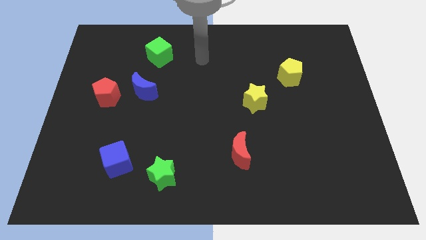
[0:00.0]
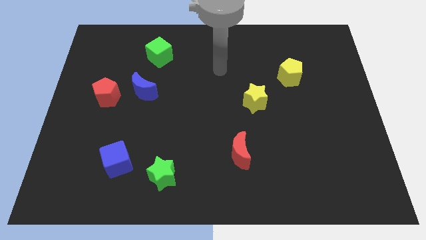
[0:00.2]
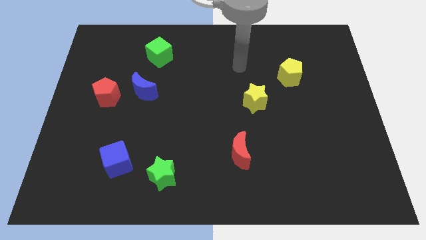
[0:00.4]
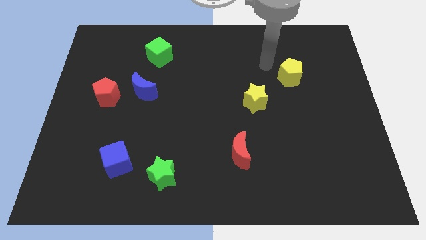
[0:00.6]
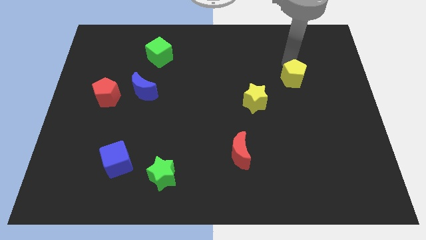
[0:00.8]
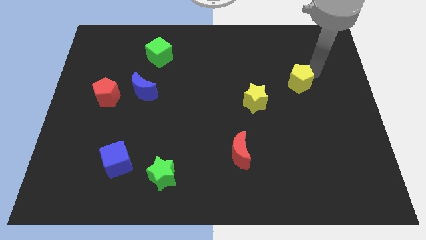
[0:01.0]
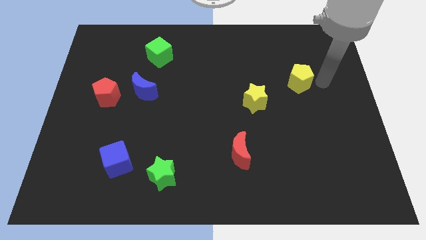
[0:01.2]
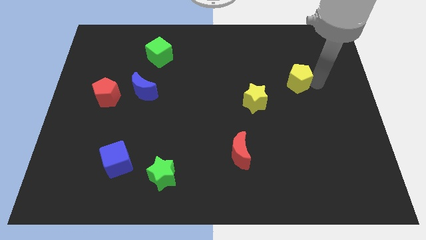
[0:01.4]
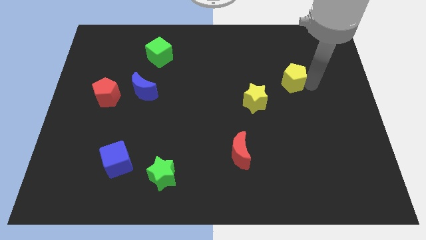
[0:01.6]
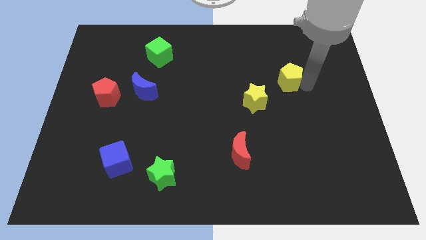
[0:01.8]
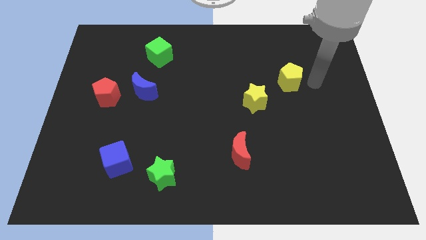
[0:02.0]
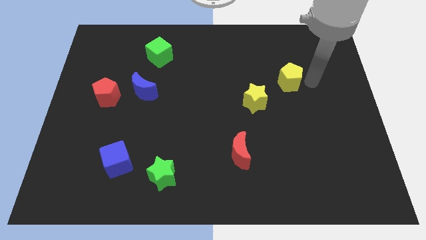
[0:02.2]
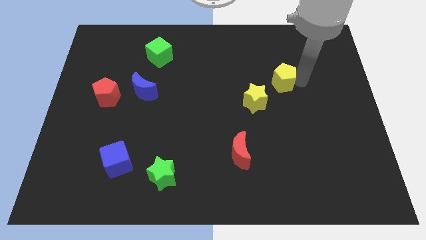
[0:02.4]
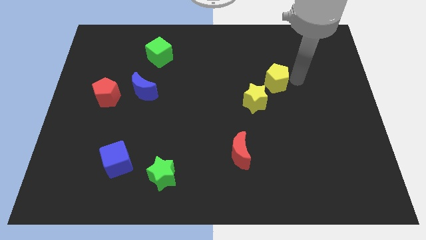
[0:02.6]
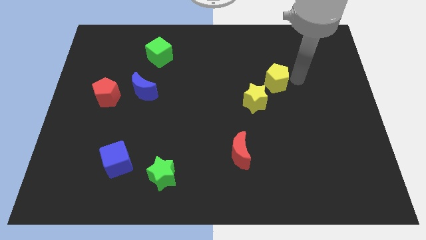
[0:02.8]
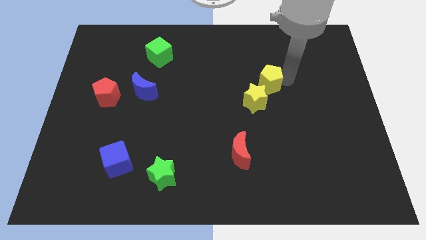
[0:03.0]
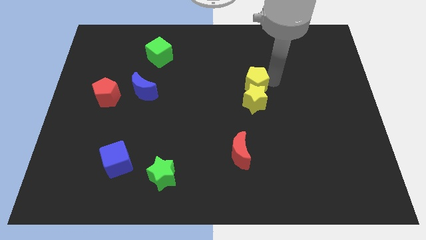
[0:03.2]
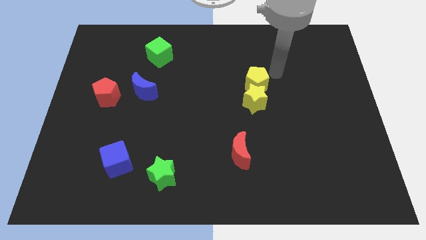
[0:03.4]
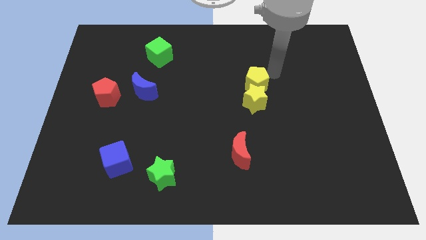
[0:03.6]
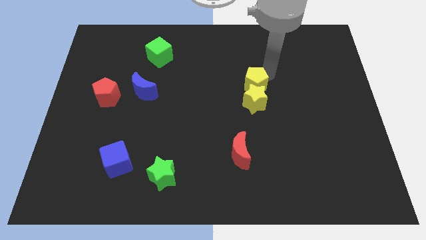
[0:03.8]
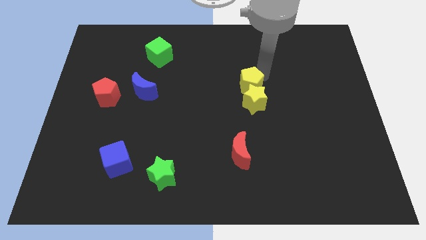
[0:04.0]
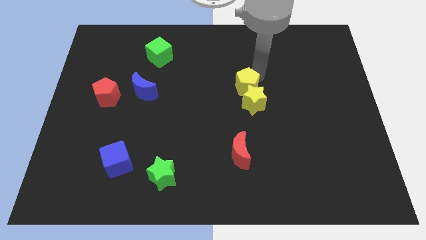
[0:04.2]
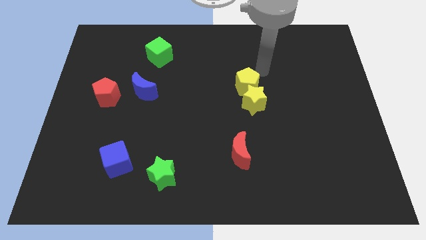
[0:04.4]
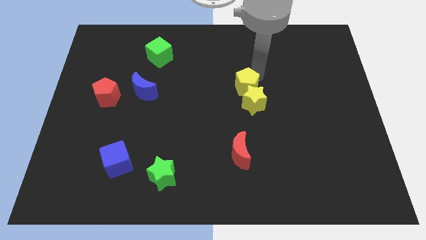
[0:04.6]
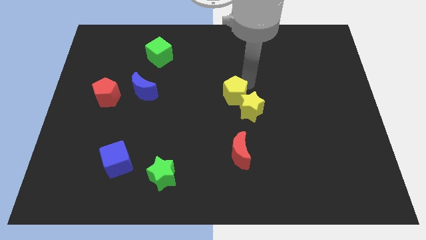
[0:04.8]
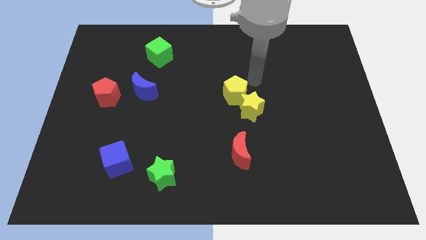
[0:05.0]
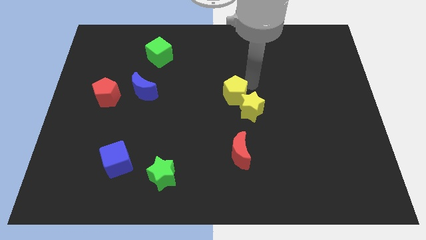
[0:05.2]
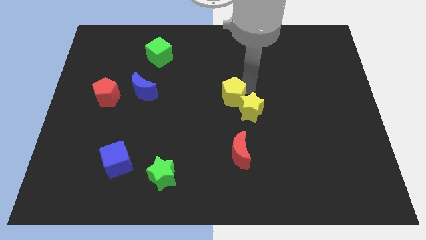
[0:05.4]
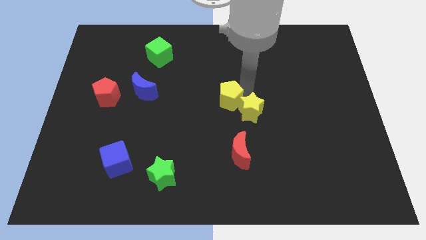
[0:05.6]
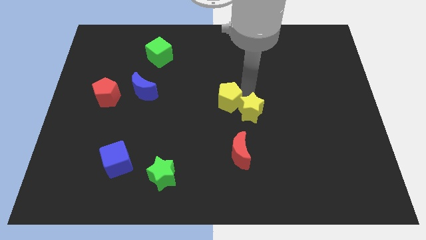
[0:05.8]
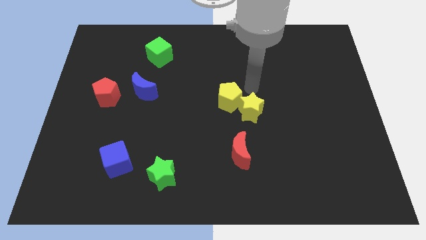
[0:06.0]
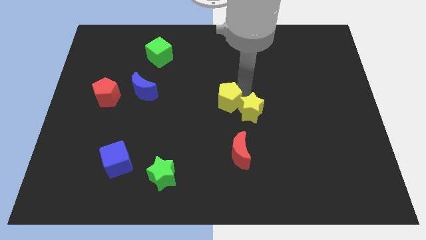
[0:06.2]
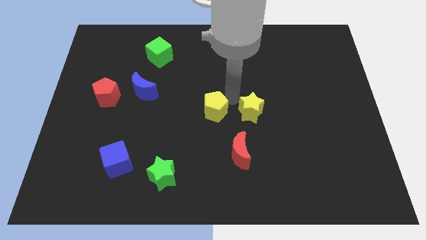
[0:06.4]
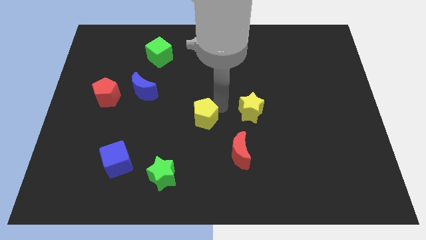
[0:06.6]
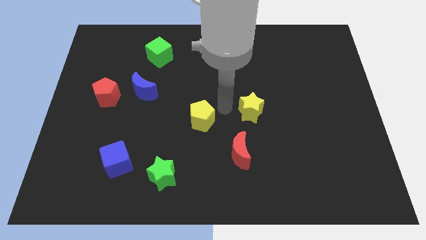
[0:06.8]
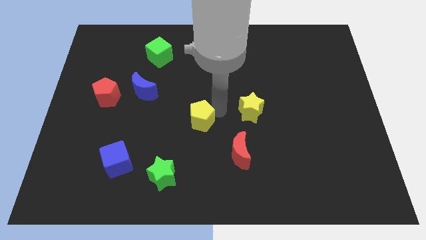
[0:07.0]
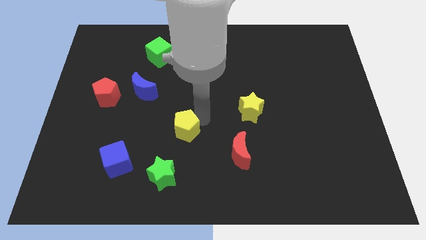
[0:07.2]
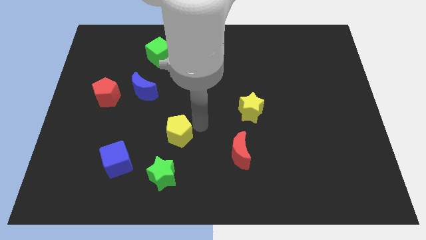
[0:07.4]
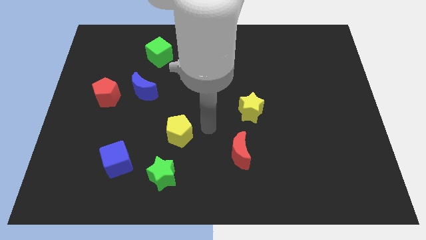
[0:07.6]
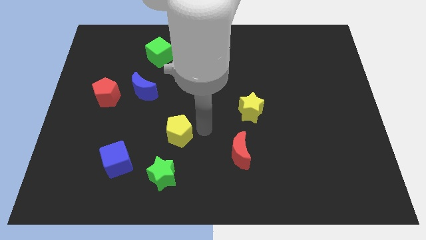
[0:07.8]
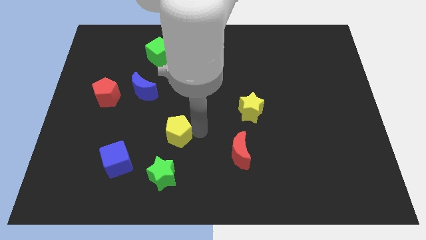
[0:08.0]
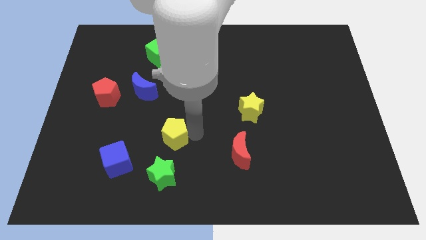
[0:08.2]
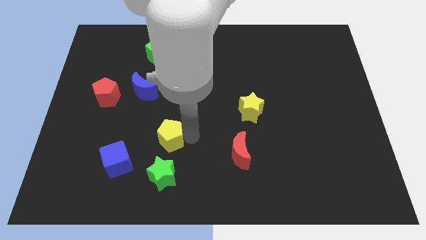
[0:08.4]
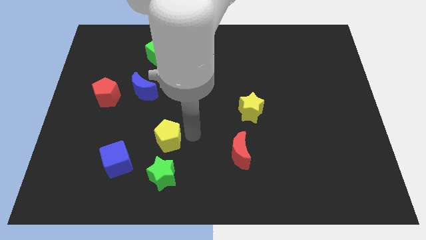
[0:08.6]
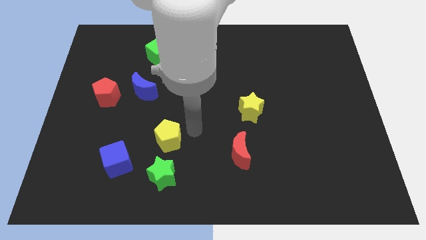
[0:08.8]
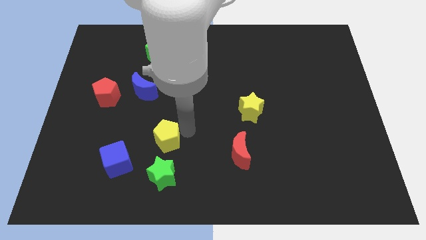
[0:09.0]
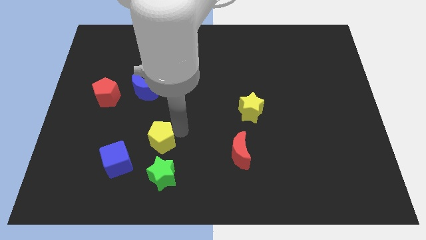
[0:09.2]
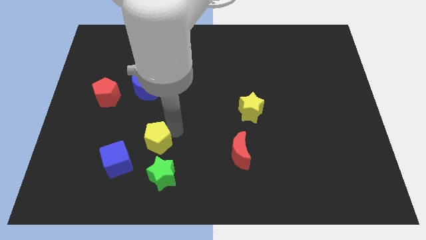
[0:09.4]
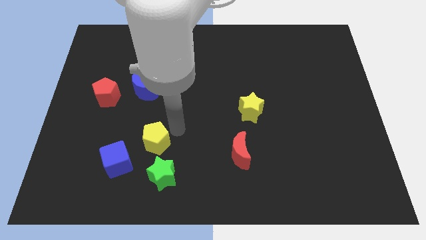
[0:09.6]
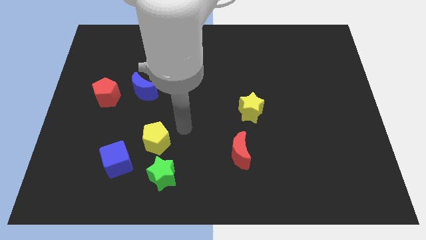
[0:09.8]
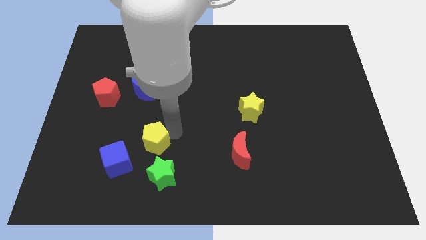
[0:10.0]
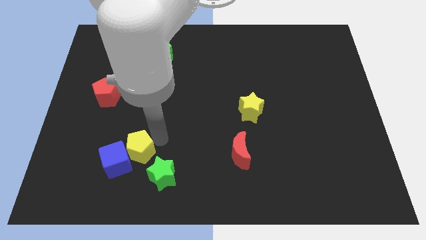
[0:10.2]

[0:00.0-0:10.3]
put the yellow pentagon to the blue cube

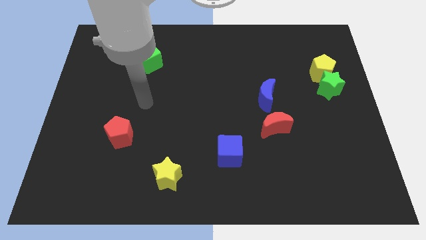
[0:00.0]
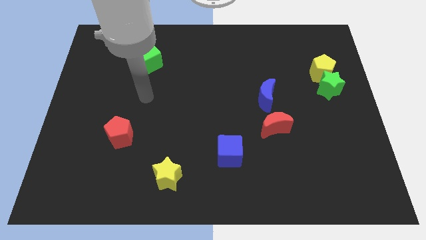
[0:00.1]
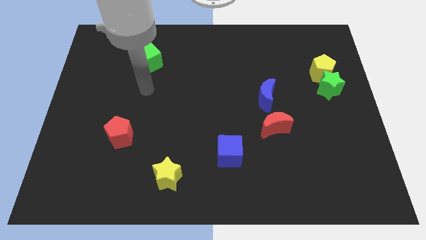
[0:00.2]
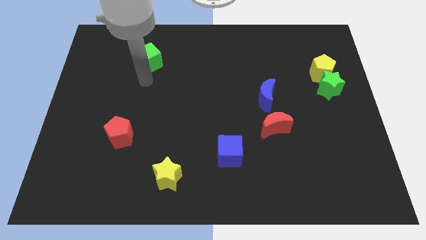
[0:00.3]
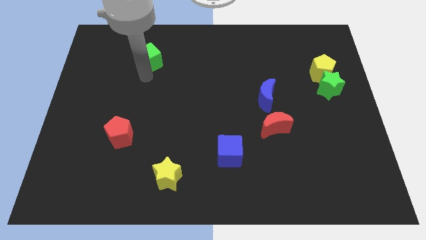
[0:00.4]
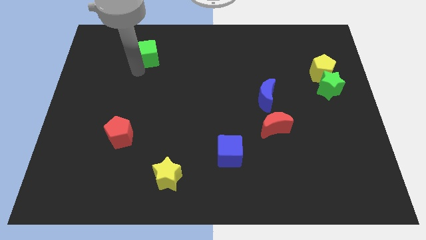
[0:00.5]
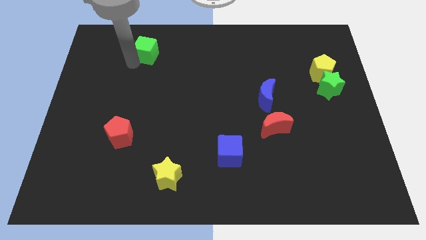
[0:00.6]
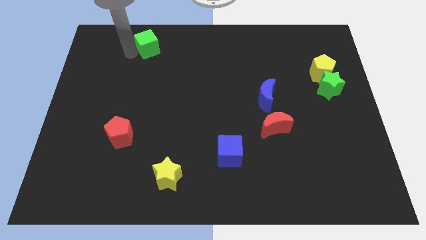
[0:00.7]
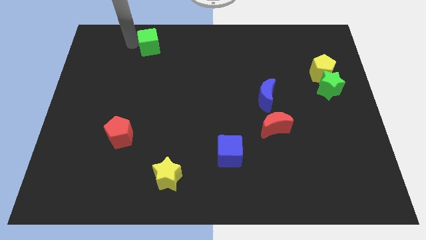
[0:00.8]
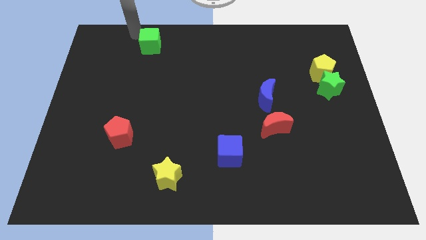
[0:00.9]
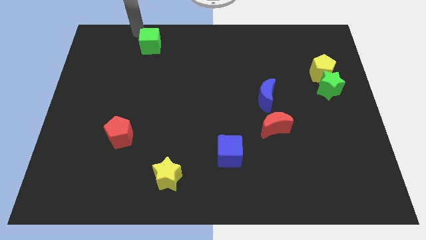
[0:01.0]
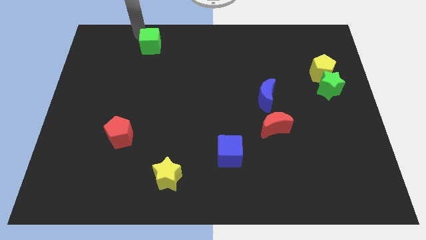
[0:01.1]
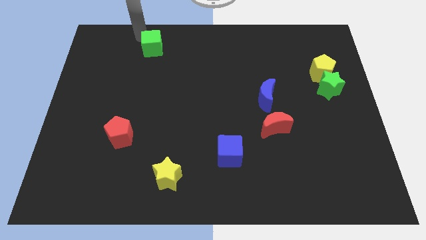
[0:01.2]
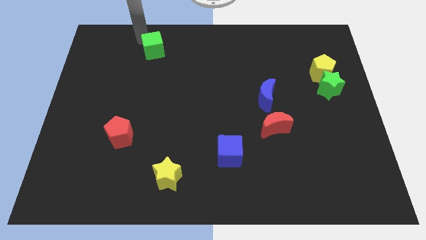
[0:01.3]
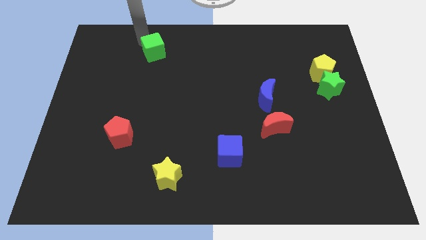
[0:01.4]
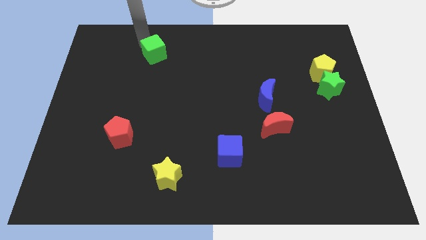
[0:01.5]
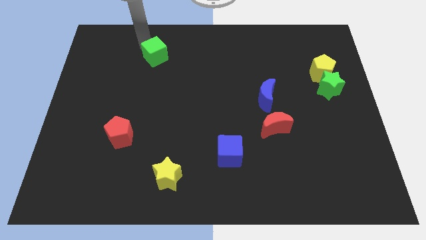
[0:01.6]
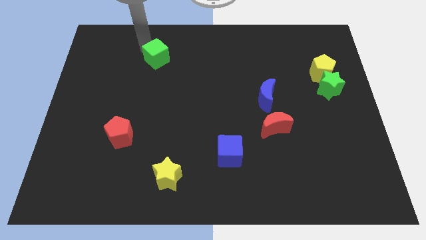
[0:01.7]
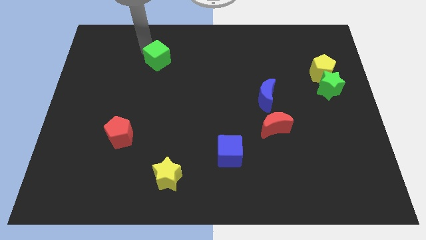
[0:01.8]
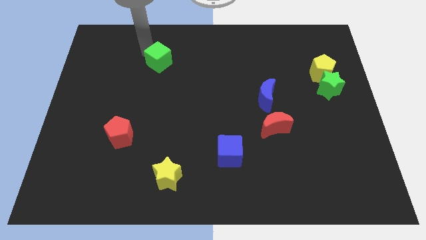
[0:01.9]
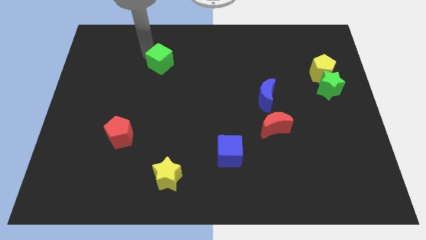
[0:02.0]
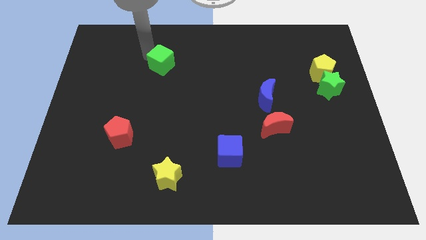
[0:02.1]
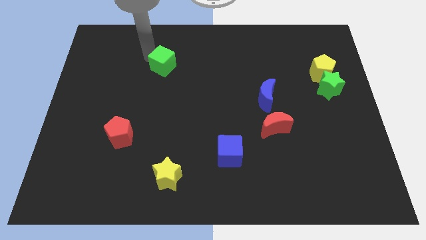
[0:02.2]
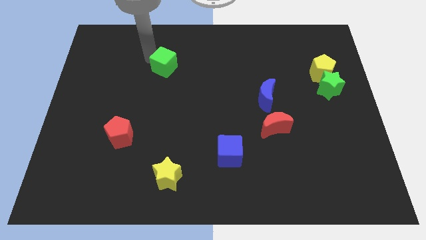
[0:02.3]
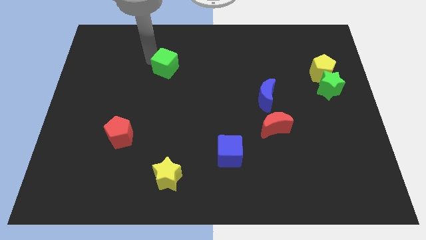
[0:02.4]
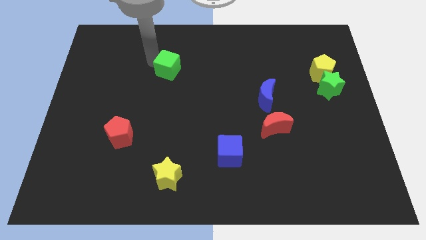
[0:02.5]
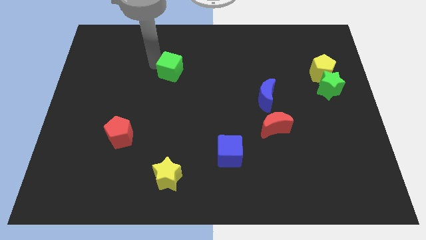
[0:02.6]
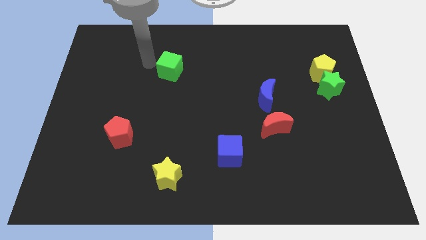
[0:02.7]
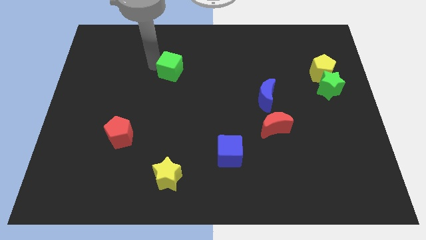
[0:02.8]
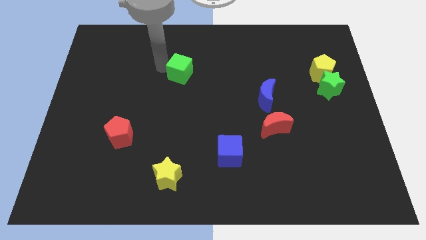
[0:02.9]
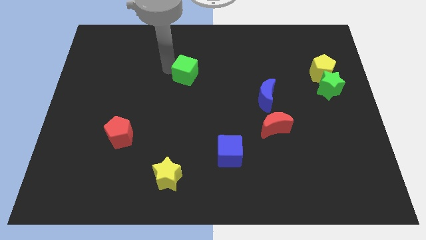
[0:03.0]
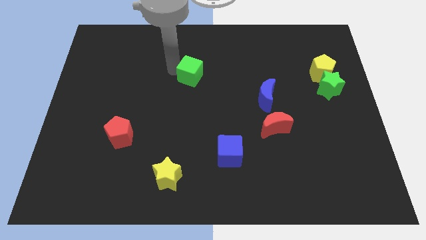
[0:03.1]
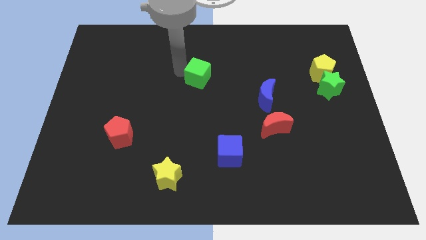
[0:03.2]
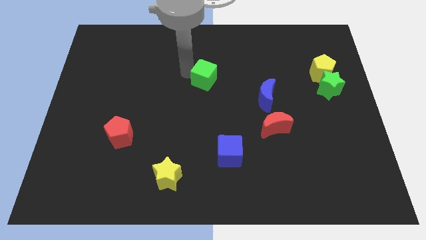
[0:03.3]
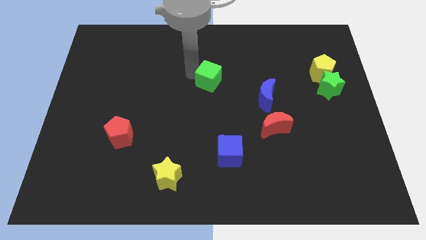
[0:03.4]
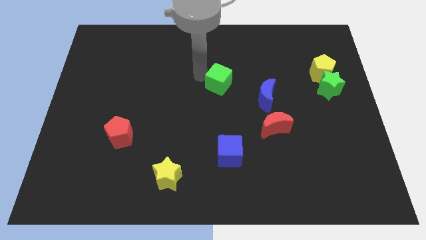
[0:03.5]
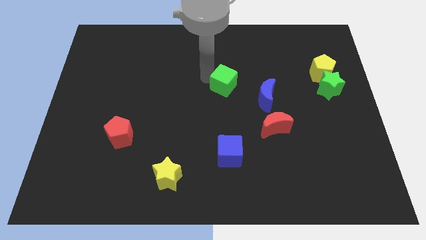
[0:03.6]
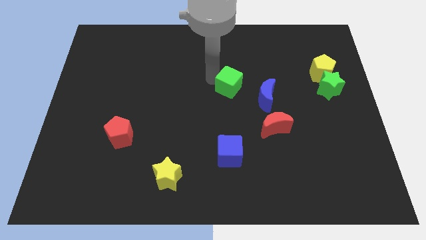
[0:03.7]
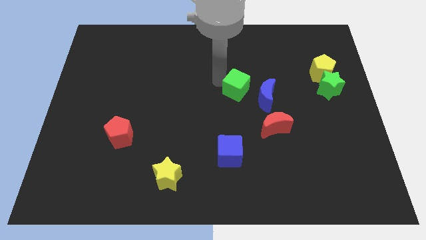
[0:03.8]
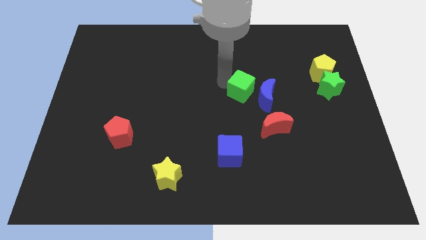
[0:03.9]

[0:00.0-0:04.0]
move the green cube towards the blue moon
